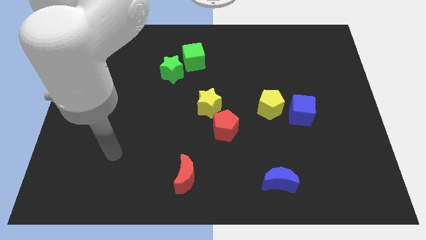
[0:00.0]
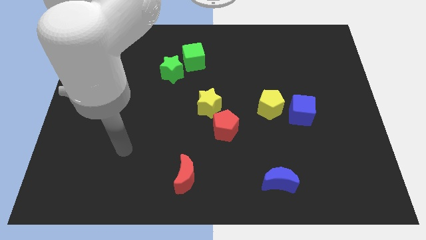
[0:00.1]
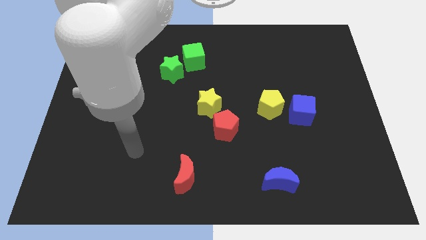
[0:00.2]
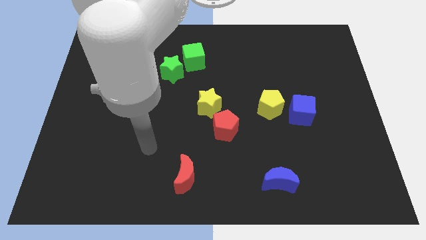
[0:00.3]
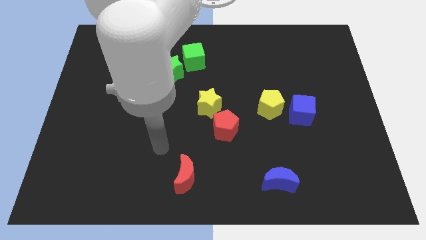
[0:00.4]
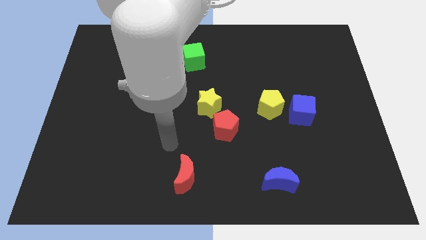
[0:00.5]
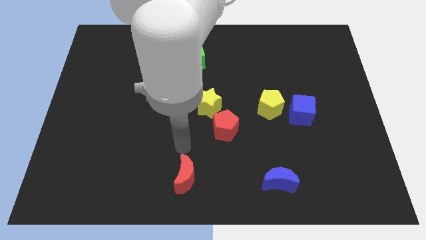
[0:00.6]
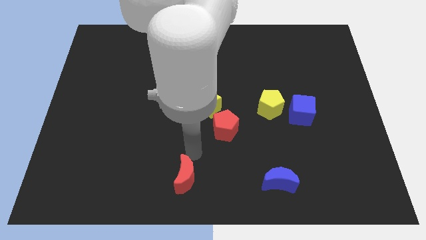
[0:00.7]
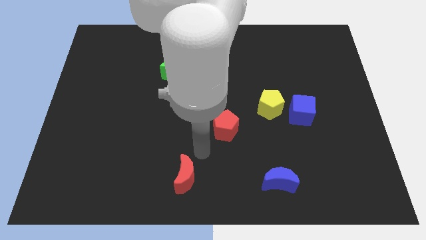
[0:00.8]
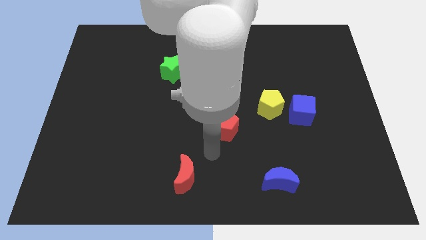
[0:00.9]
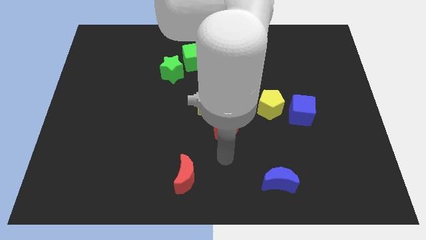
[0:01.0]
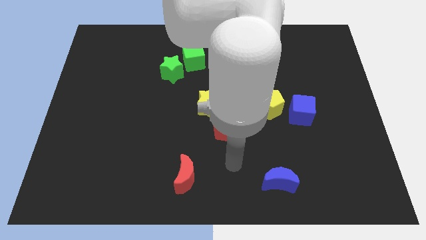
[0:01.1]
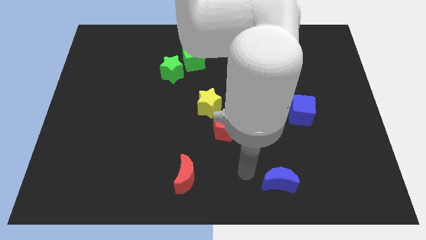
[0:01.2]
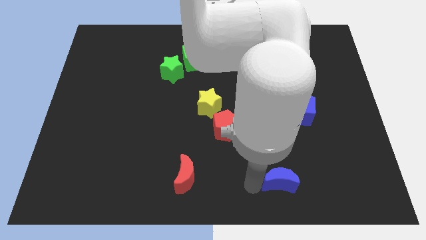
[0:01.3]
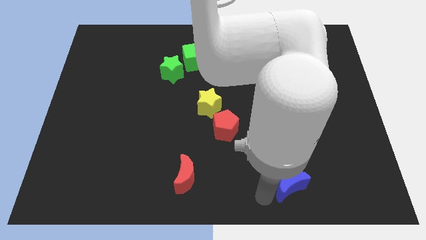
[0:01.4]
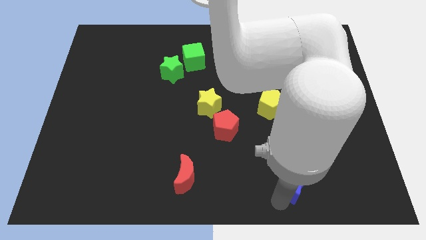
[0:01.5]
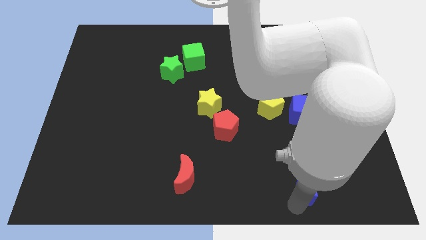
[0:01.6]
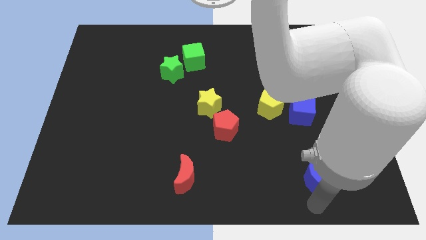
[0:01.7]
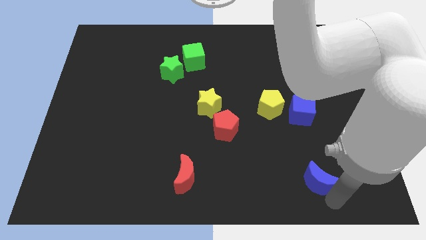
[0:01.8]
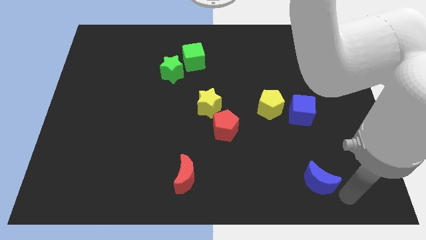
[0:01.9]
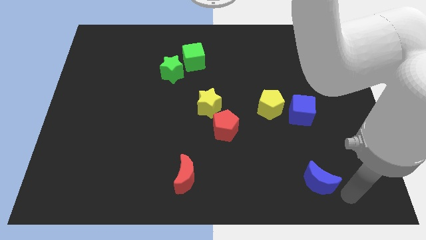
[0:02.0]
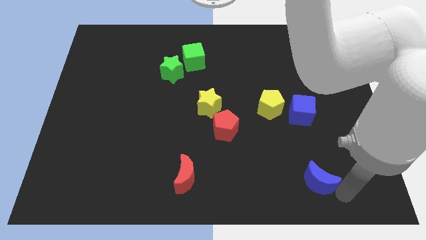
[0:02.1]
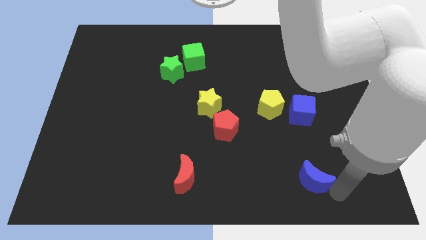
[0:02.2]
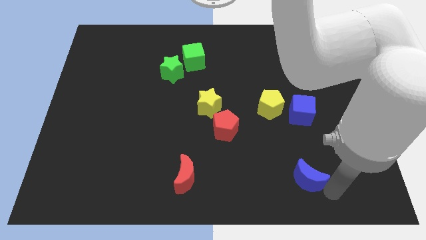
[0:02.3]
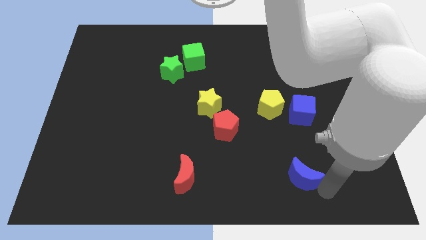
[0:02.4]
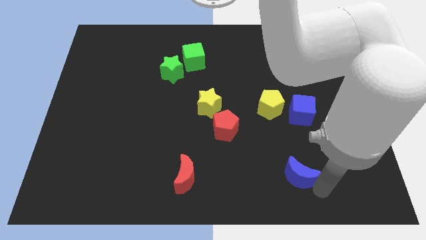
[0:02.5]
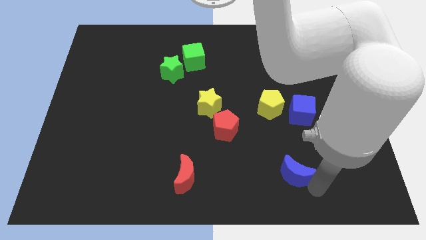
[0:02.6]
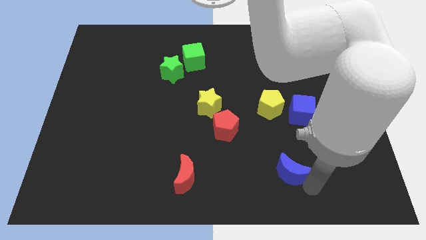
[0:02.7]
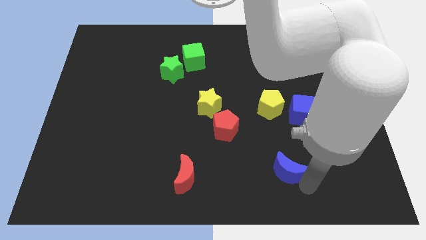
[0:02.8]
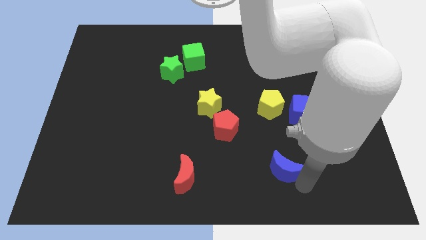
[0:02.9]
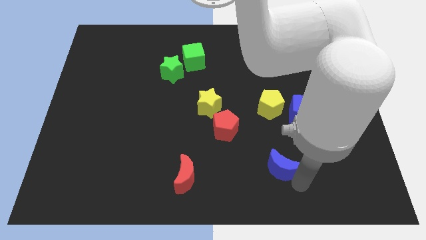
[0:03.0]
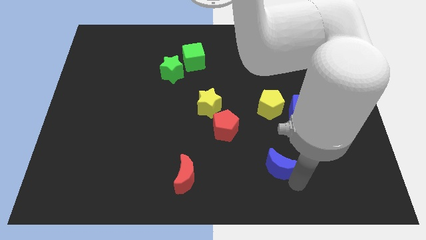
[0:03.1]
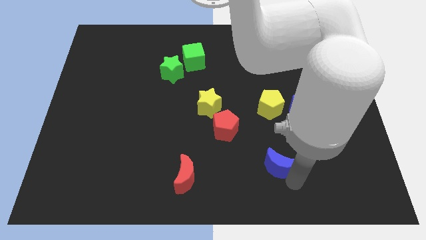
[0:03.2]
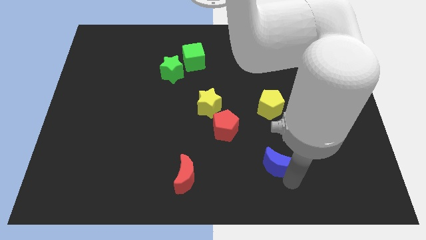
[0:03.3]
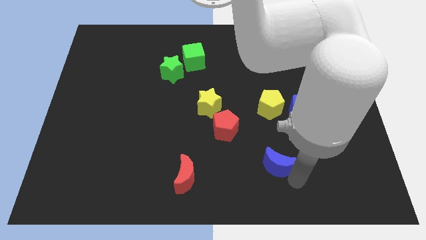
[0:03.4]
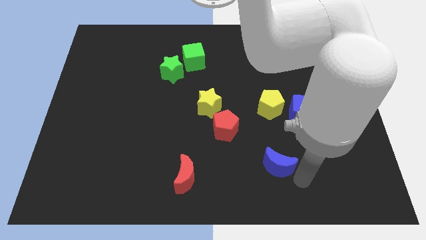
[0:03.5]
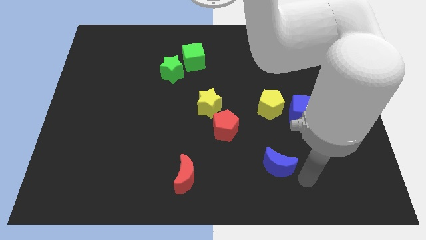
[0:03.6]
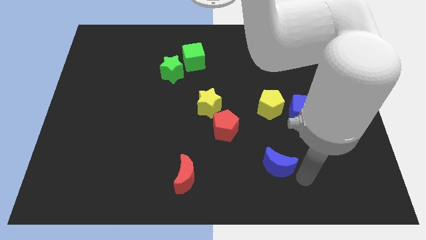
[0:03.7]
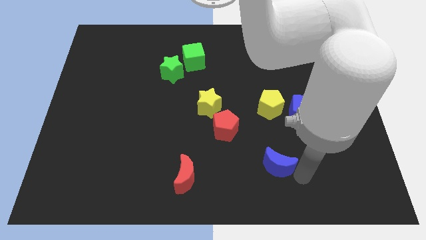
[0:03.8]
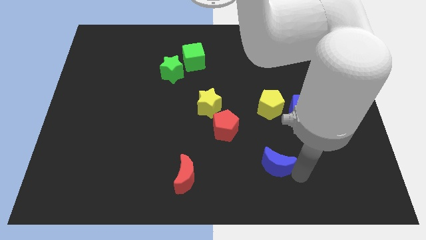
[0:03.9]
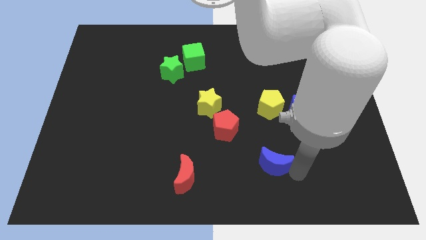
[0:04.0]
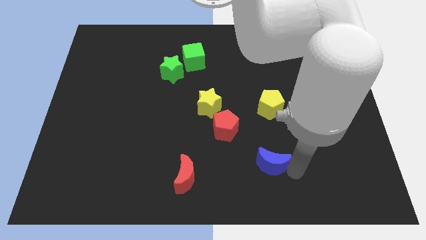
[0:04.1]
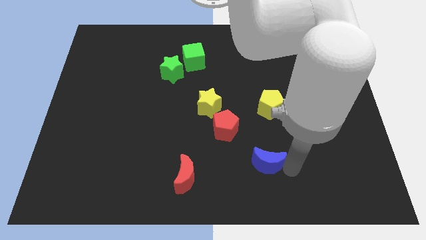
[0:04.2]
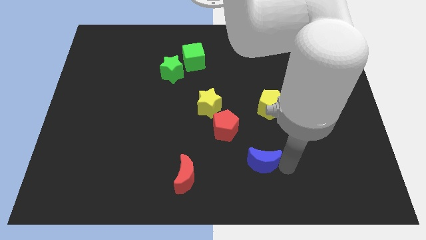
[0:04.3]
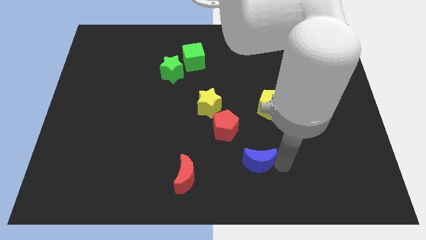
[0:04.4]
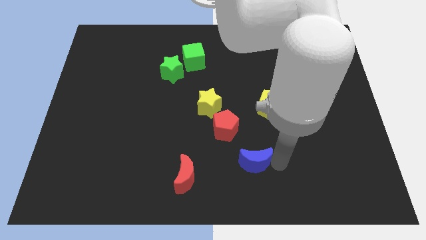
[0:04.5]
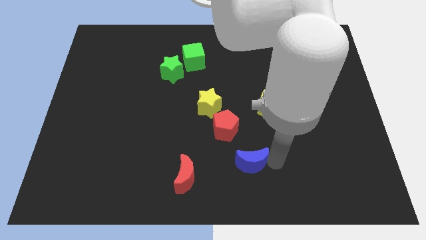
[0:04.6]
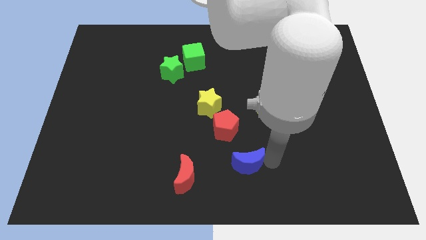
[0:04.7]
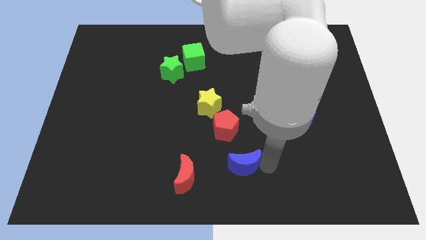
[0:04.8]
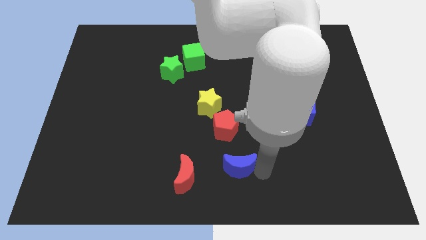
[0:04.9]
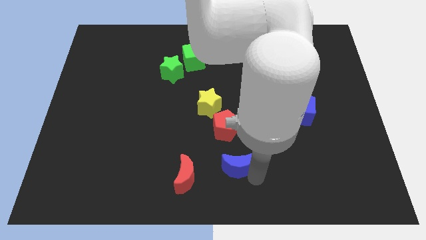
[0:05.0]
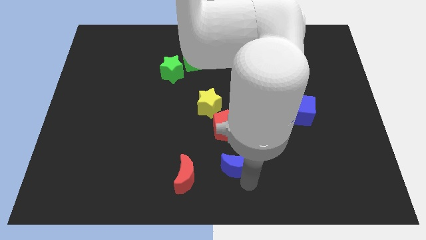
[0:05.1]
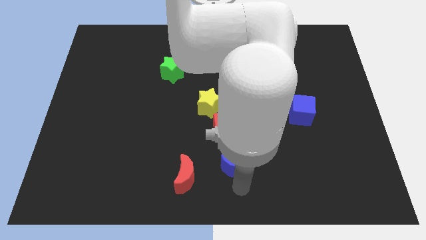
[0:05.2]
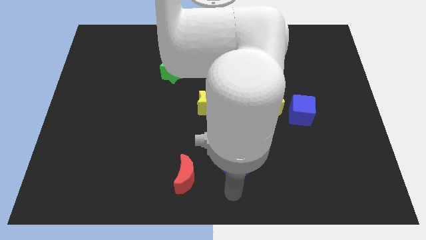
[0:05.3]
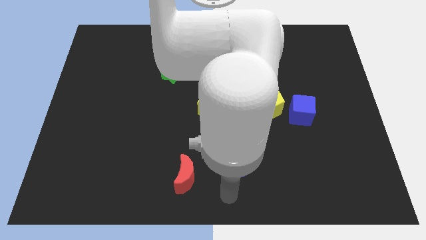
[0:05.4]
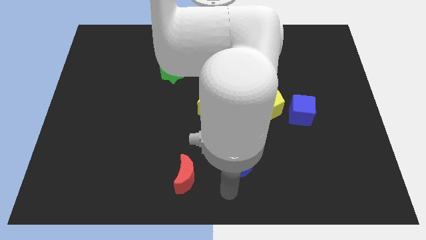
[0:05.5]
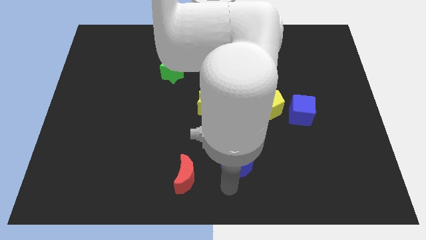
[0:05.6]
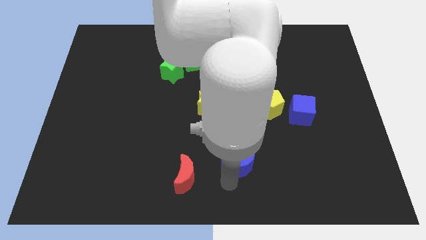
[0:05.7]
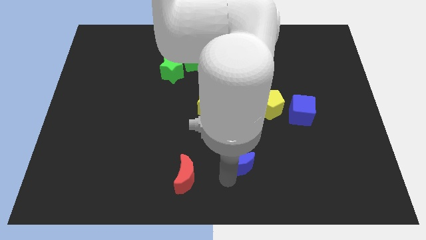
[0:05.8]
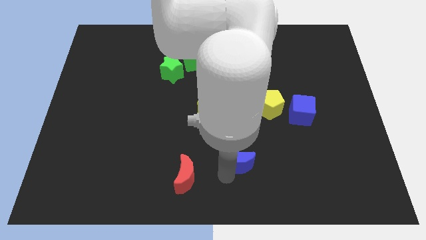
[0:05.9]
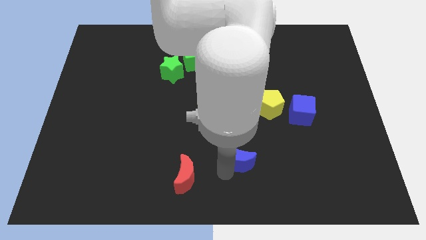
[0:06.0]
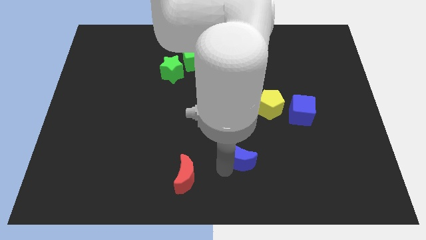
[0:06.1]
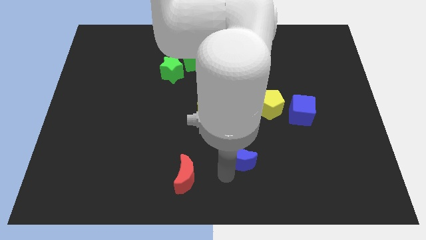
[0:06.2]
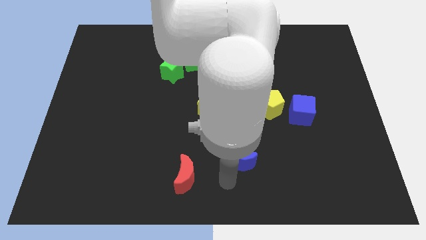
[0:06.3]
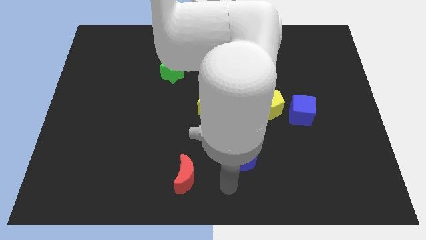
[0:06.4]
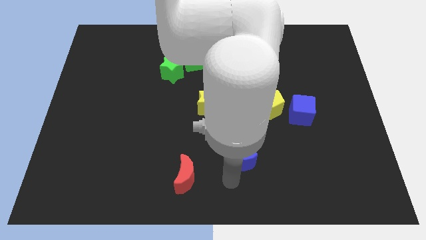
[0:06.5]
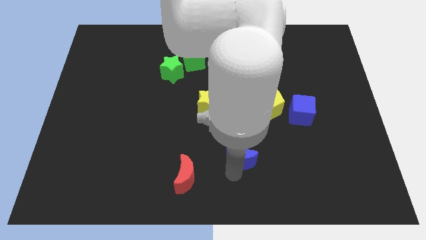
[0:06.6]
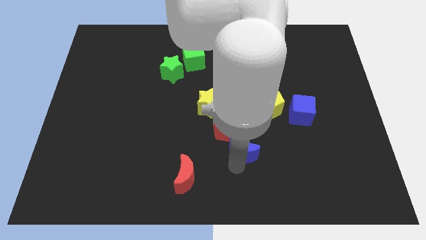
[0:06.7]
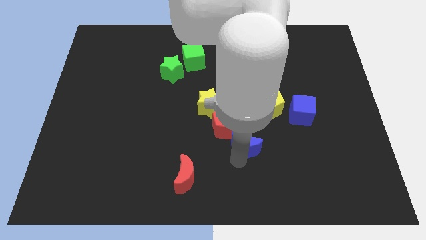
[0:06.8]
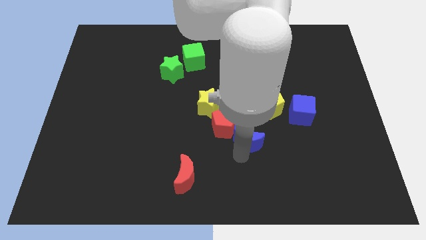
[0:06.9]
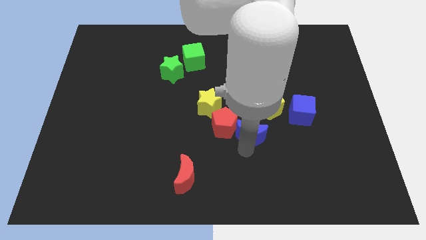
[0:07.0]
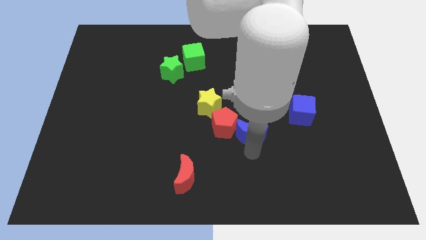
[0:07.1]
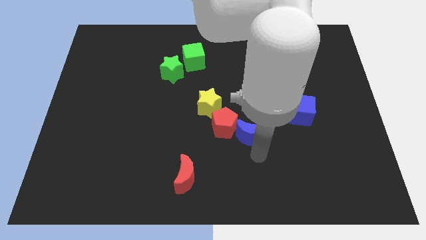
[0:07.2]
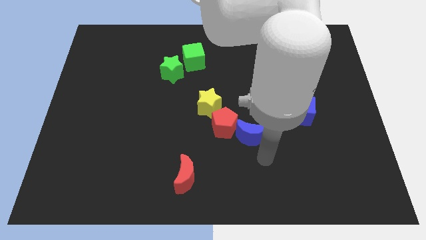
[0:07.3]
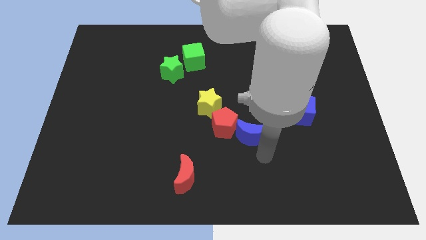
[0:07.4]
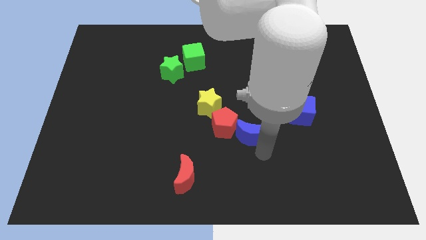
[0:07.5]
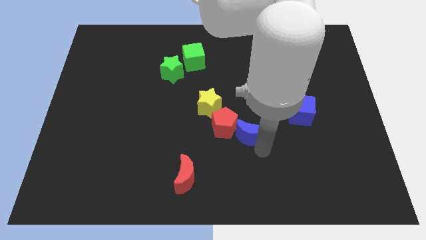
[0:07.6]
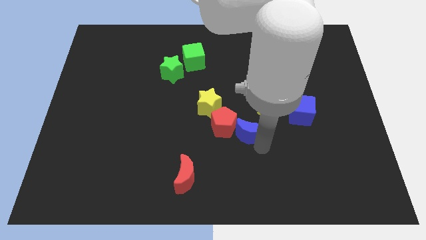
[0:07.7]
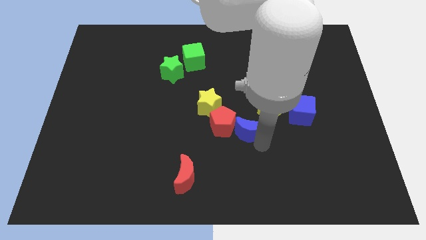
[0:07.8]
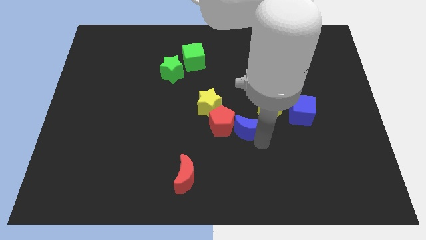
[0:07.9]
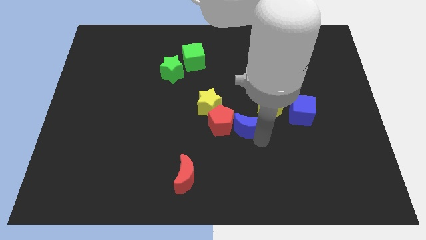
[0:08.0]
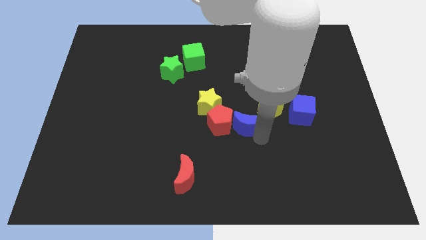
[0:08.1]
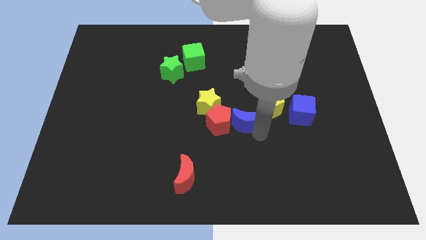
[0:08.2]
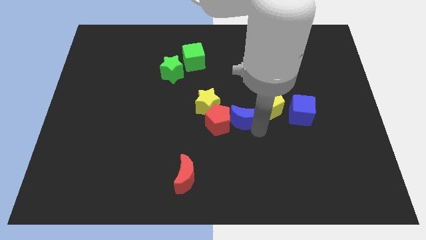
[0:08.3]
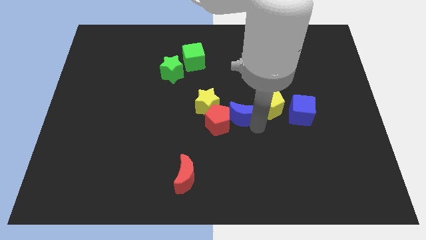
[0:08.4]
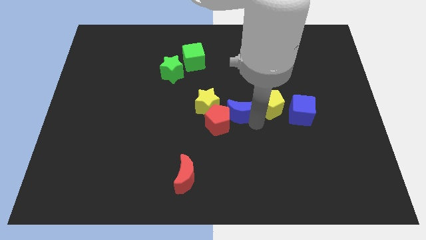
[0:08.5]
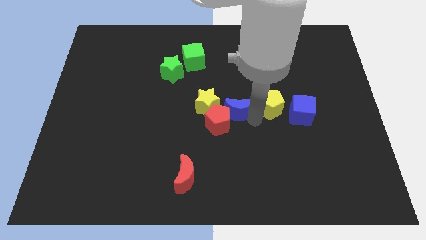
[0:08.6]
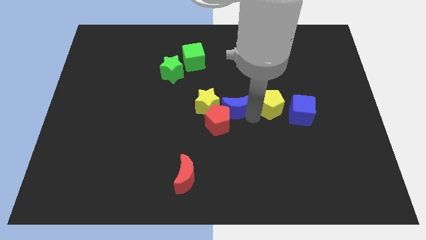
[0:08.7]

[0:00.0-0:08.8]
push the blue moon to the top of the red pentagon
